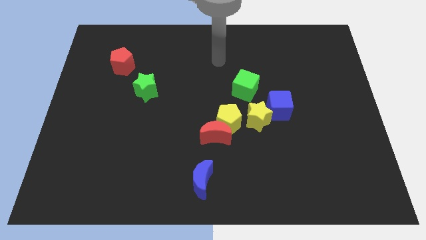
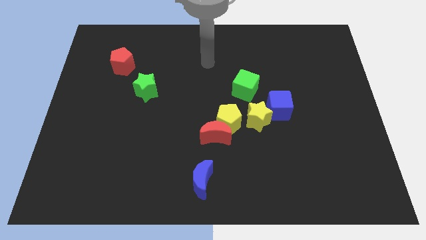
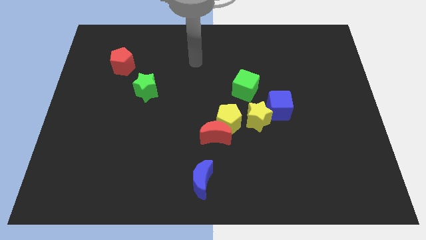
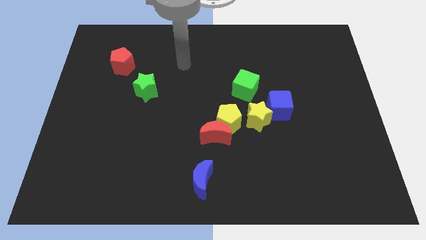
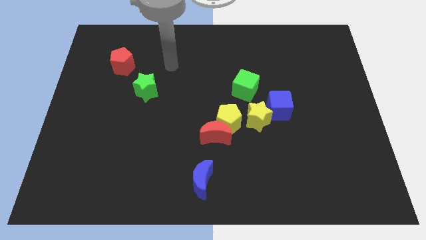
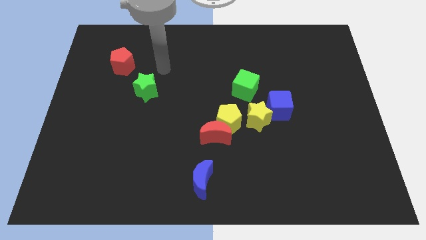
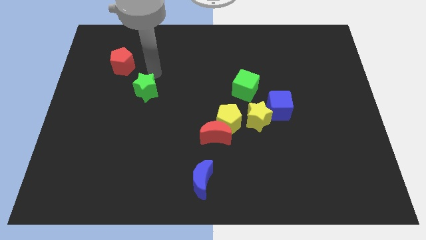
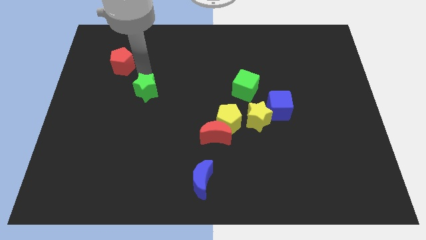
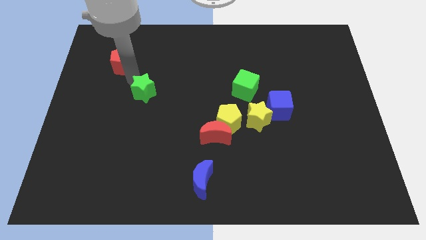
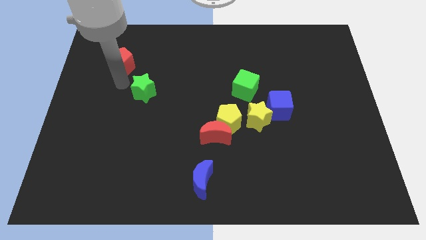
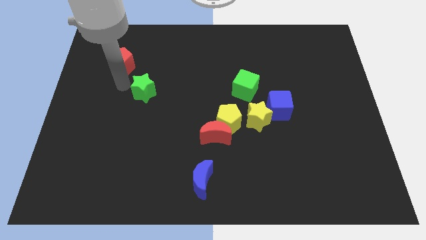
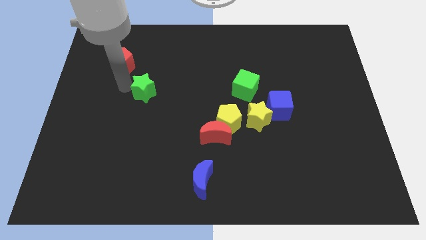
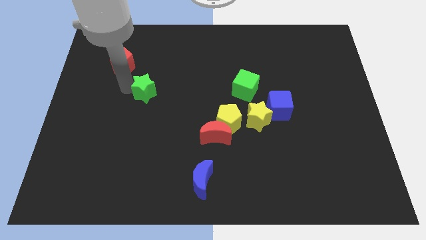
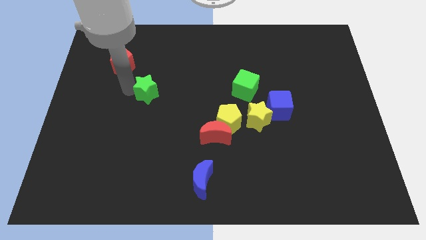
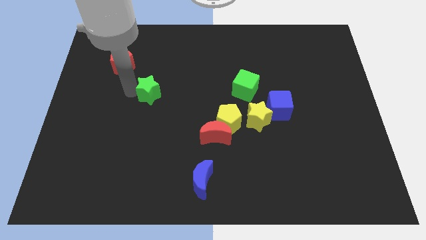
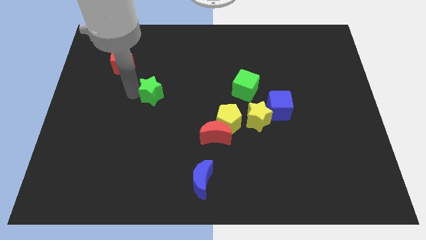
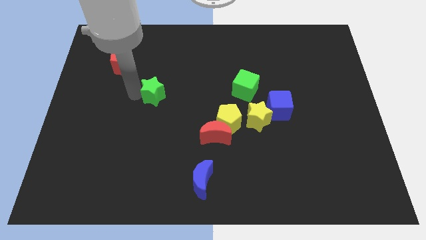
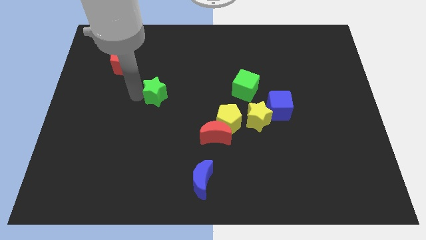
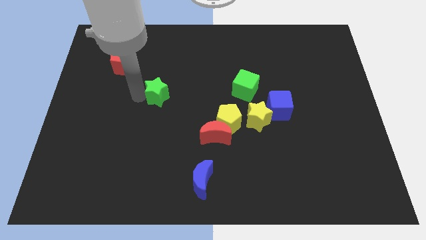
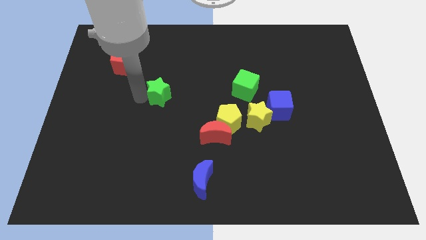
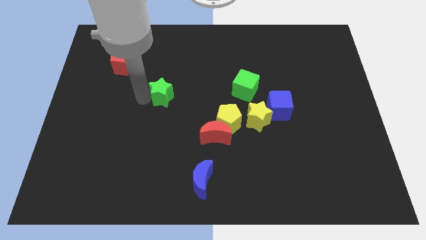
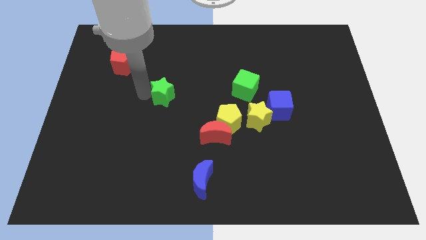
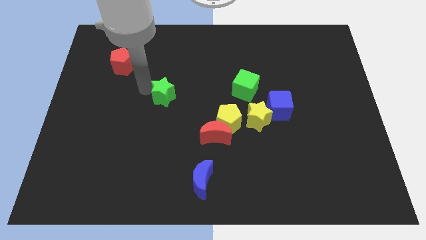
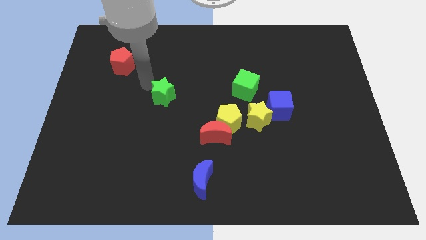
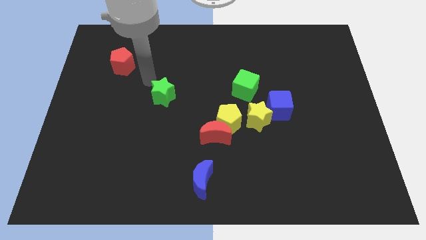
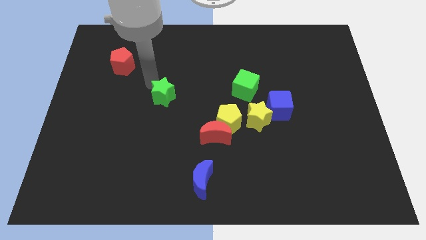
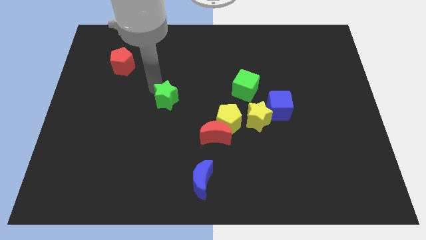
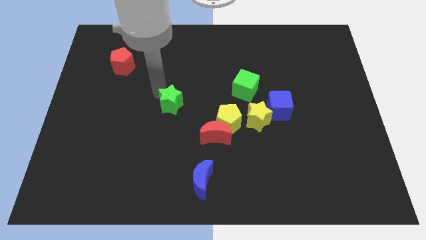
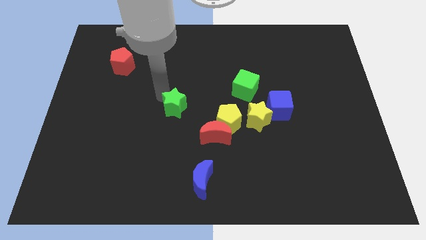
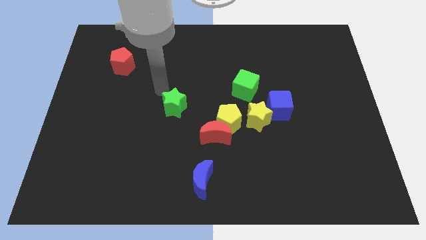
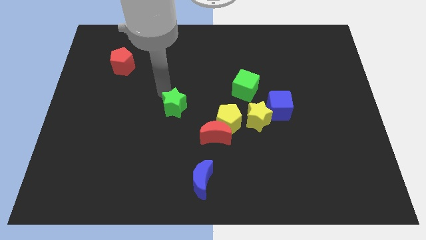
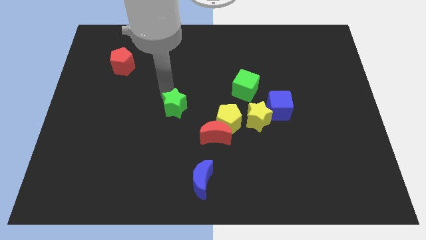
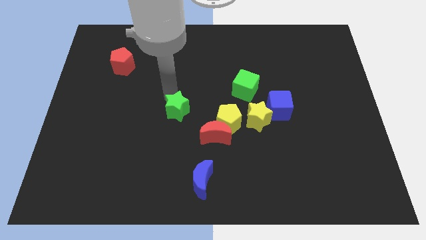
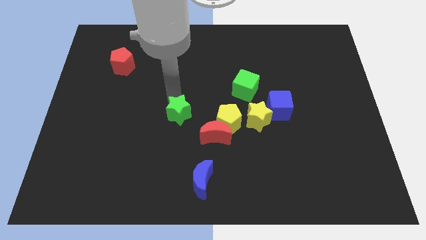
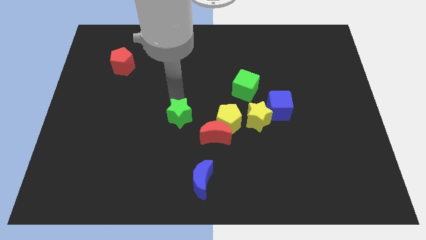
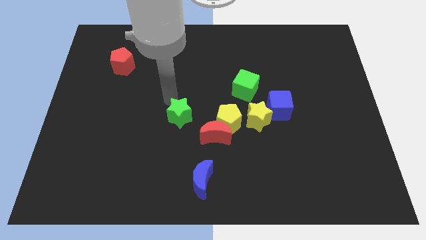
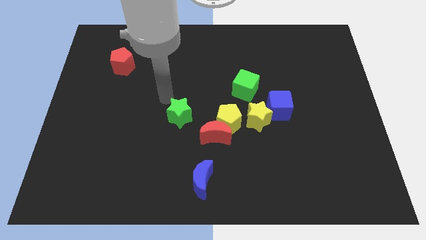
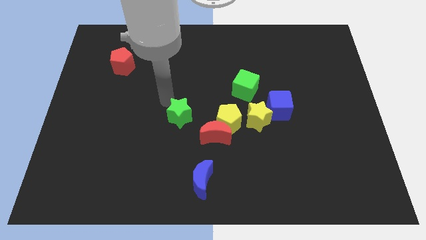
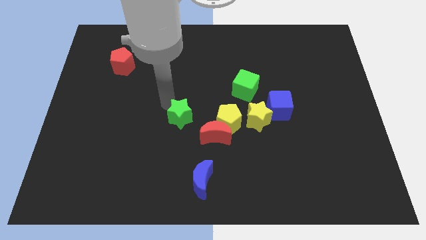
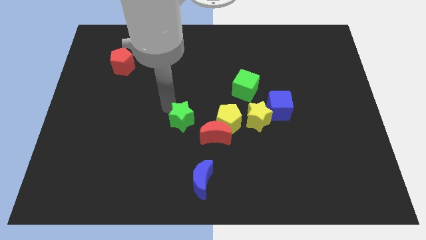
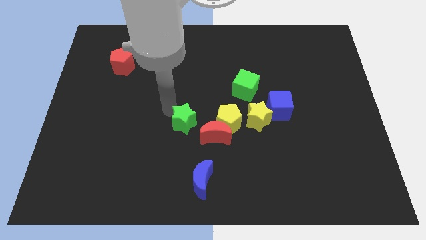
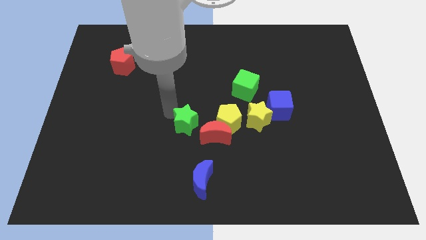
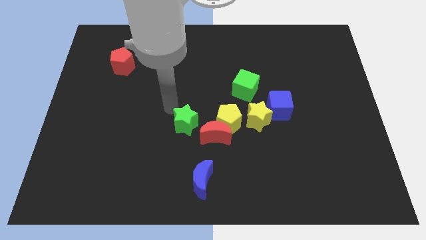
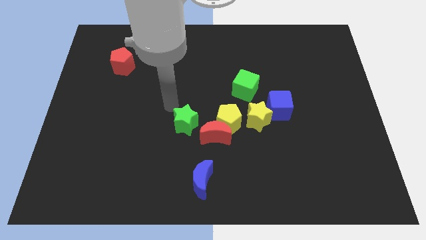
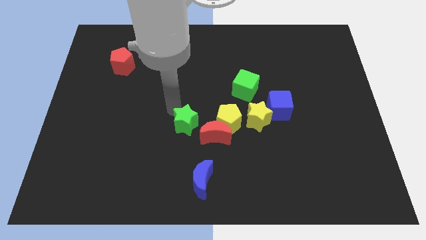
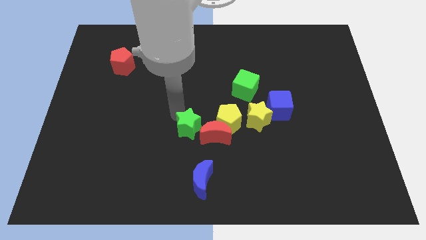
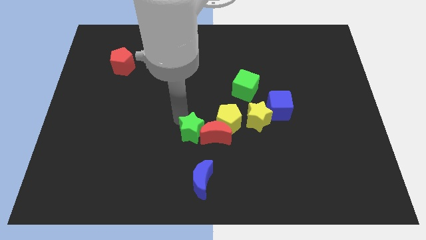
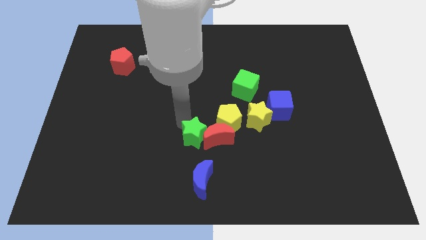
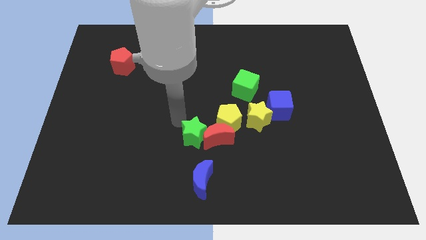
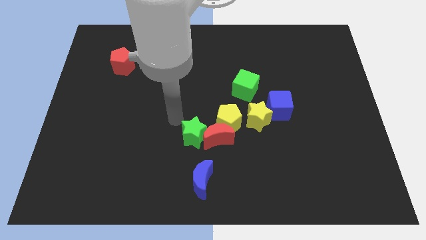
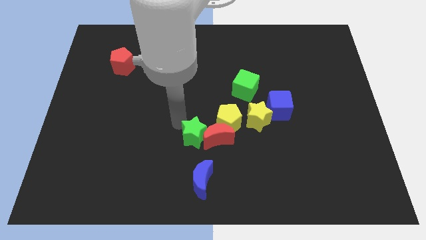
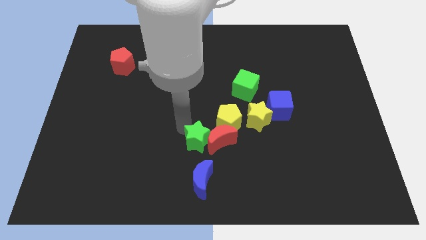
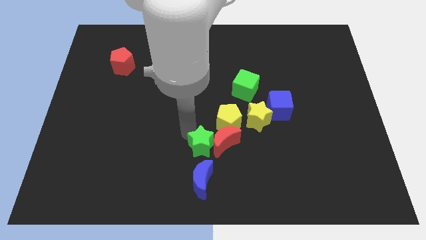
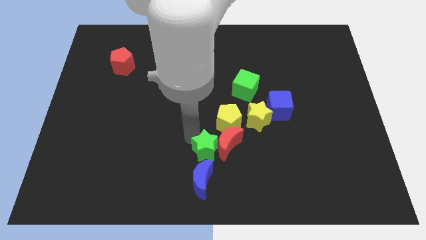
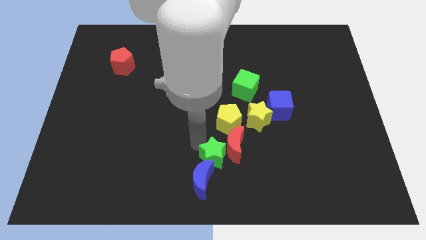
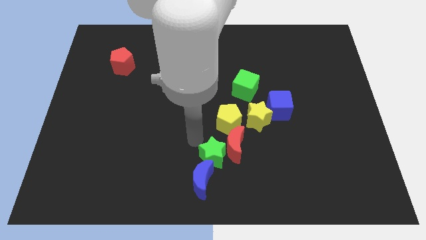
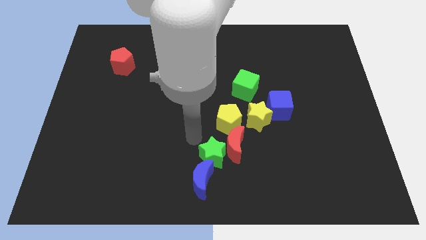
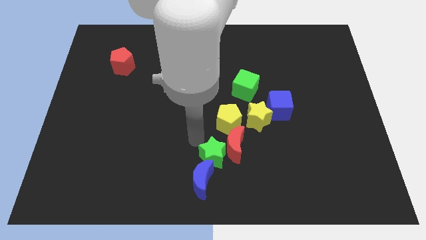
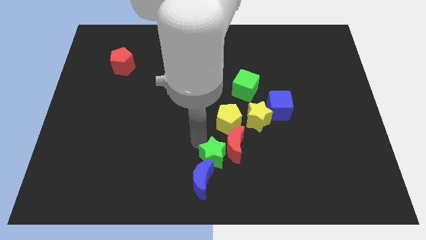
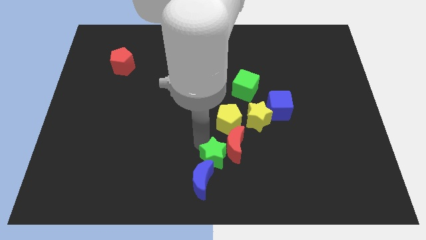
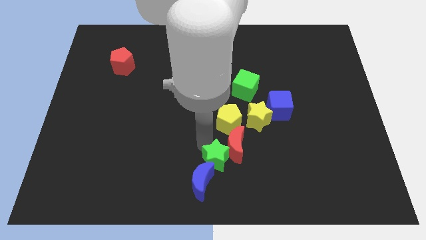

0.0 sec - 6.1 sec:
move the green star to the bottom side of the red moon

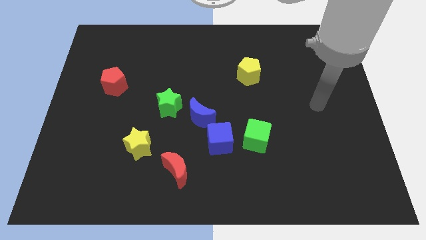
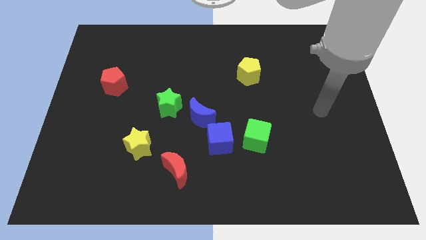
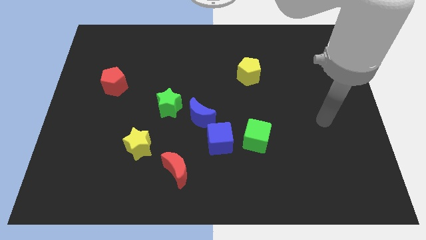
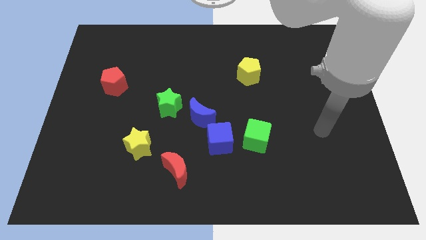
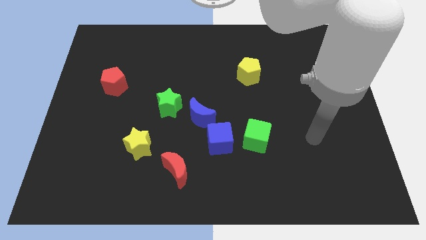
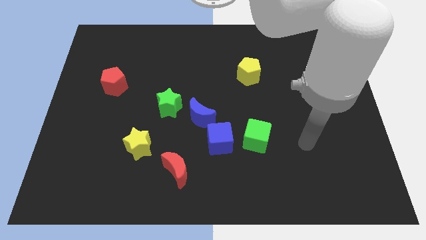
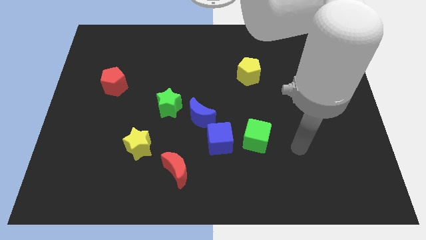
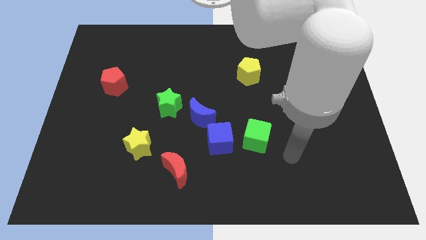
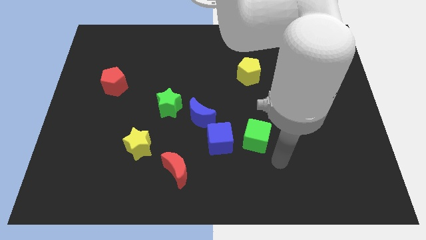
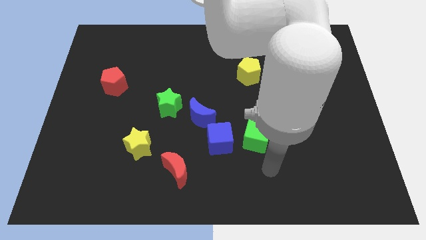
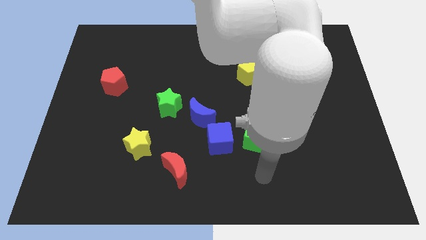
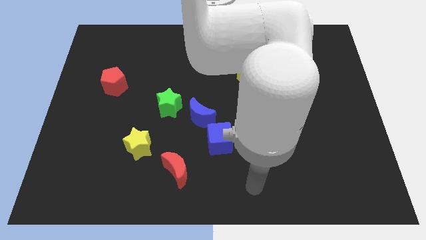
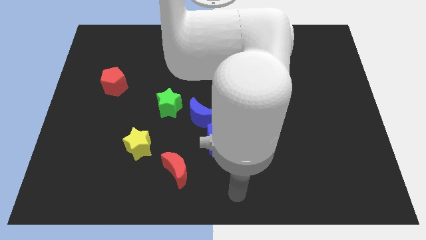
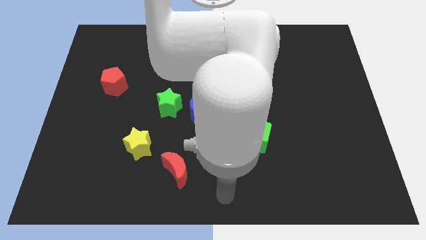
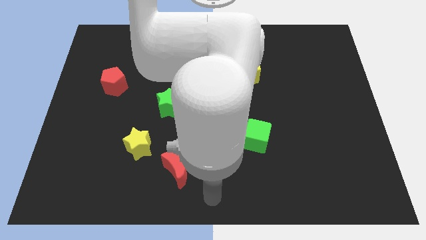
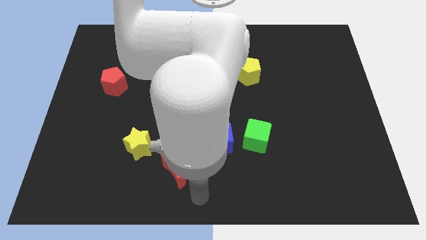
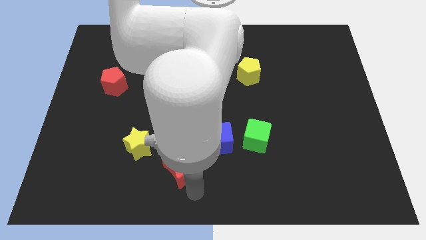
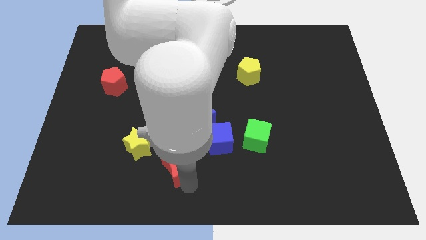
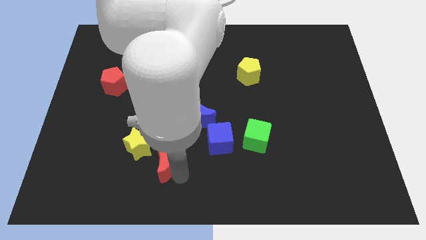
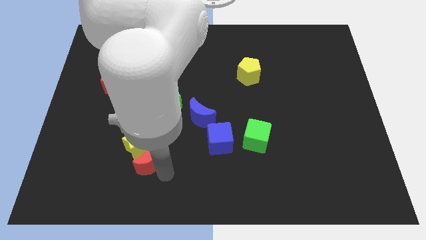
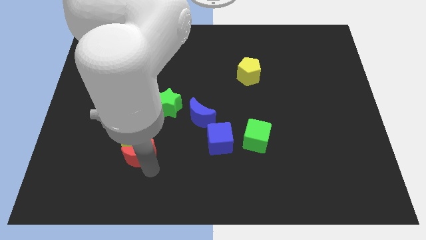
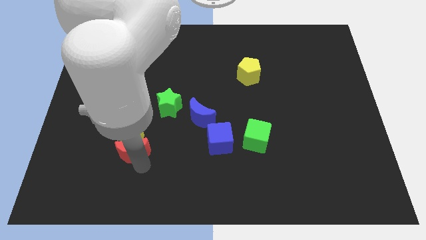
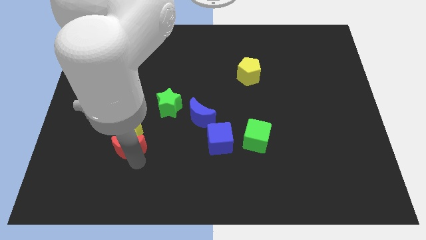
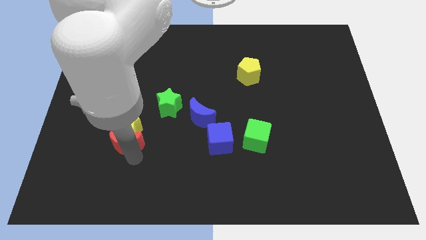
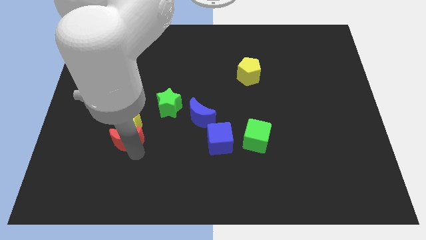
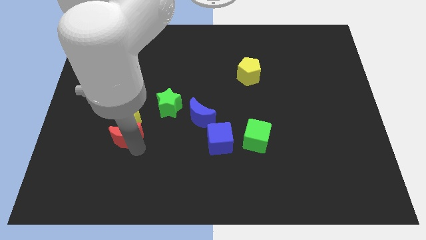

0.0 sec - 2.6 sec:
push the yellow star to the left side of the green star
